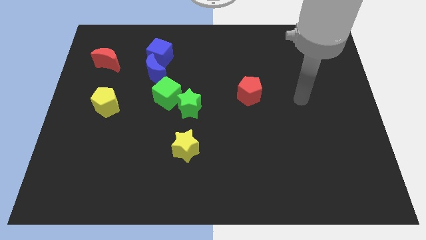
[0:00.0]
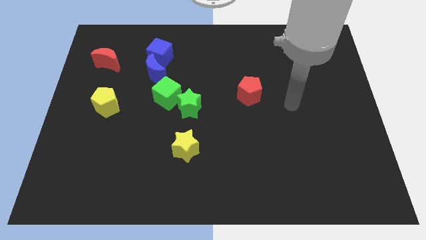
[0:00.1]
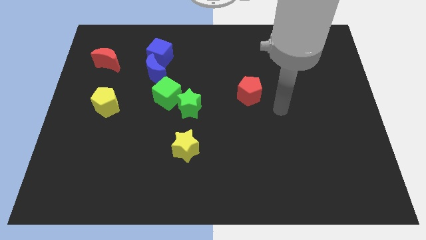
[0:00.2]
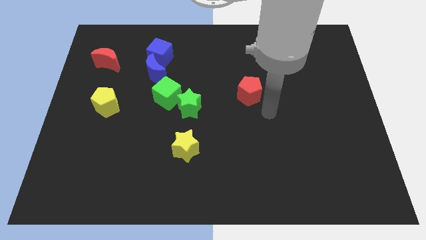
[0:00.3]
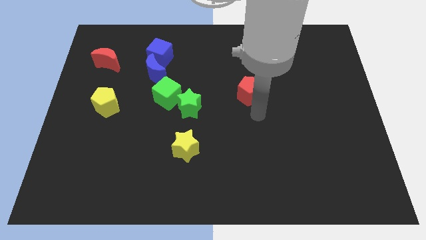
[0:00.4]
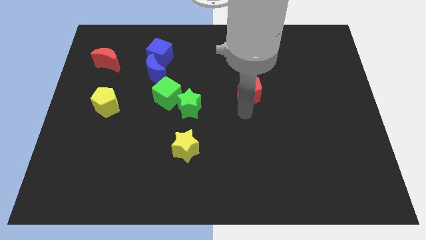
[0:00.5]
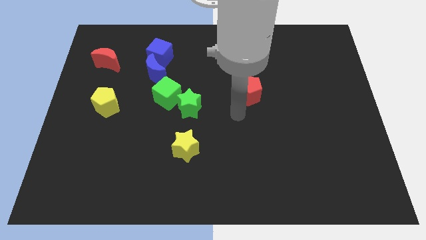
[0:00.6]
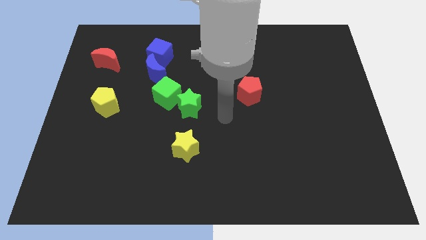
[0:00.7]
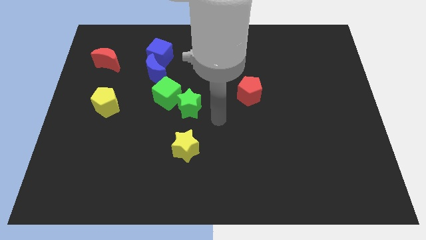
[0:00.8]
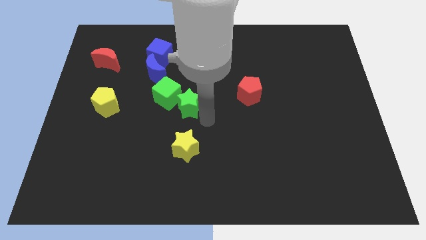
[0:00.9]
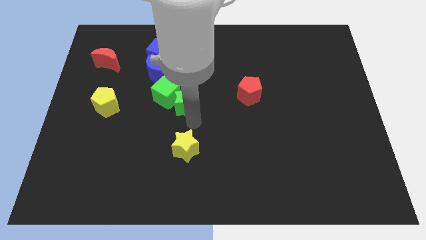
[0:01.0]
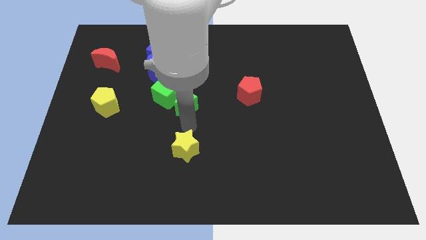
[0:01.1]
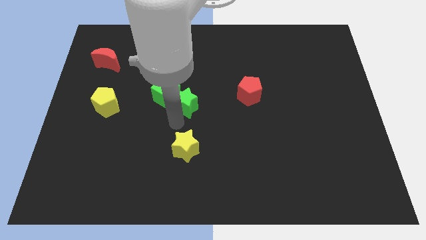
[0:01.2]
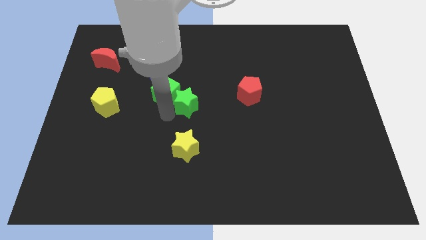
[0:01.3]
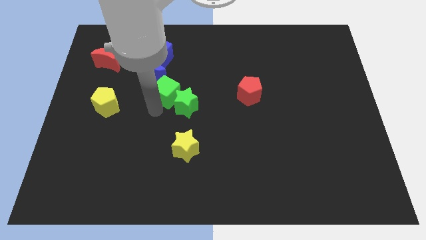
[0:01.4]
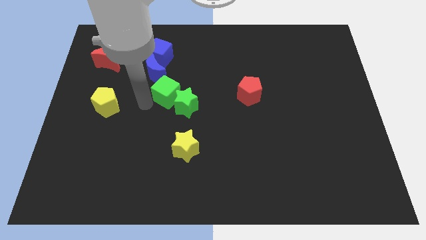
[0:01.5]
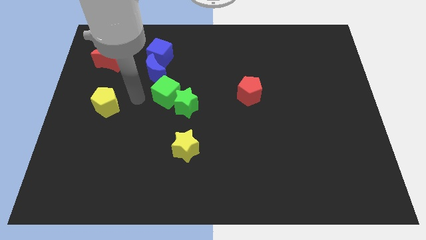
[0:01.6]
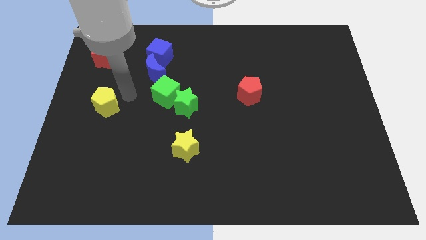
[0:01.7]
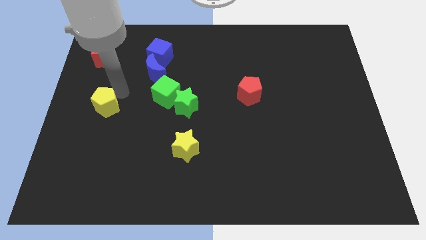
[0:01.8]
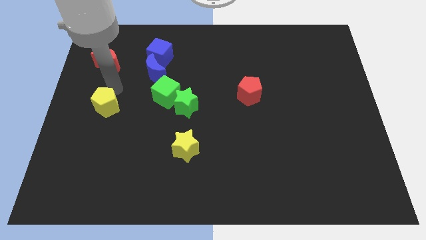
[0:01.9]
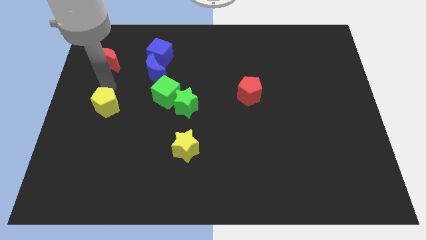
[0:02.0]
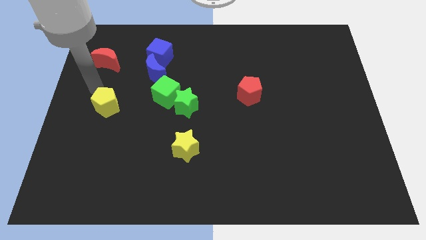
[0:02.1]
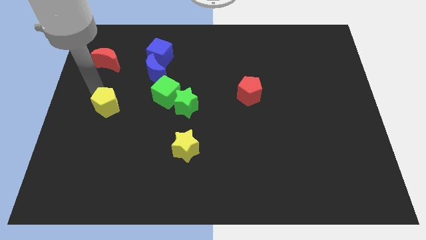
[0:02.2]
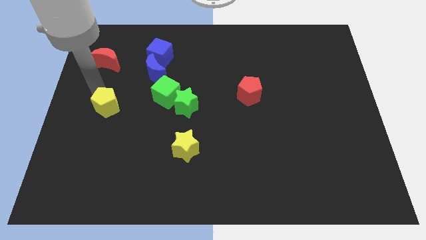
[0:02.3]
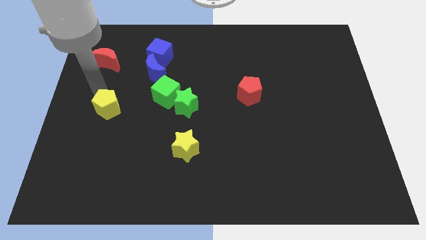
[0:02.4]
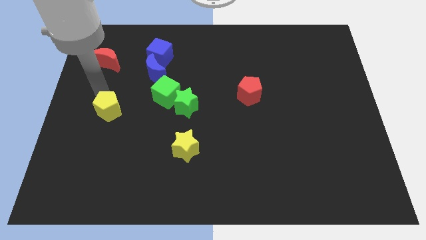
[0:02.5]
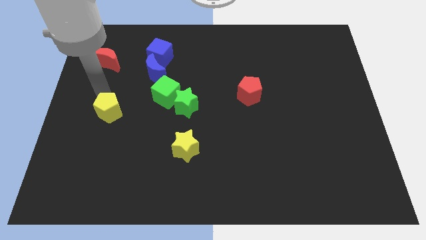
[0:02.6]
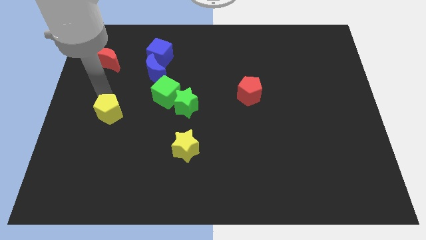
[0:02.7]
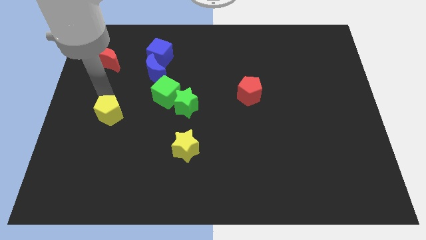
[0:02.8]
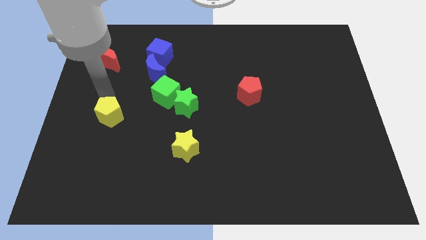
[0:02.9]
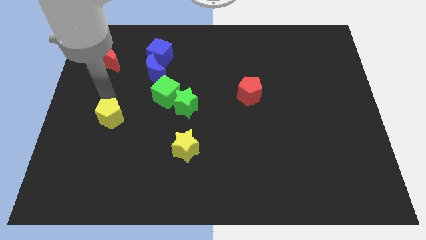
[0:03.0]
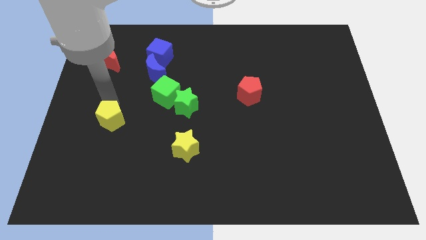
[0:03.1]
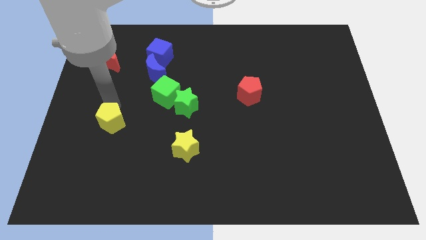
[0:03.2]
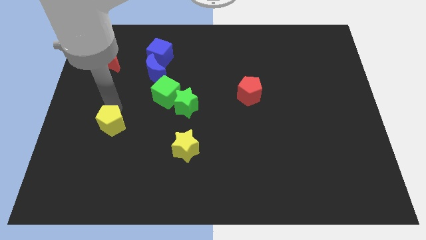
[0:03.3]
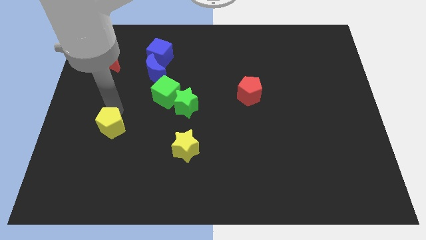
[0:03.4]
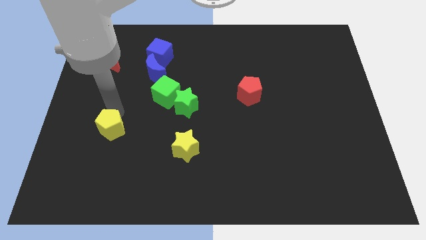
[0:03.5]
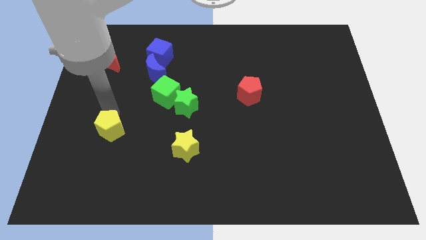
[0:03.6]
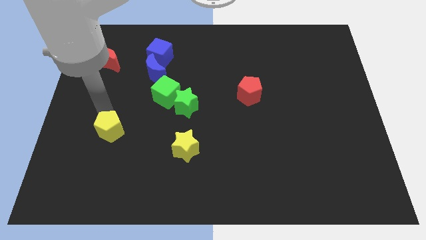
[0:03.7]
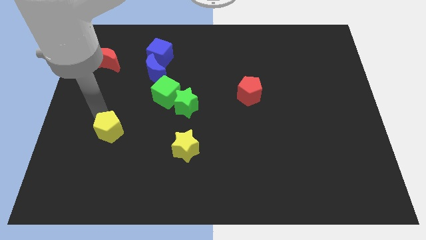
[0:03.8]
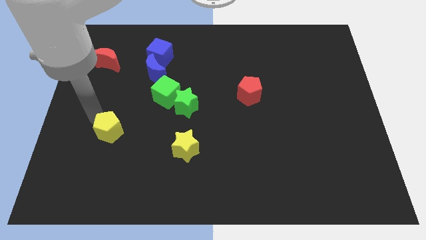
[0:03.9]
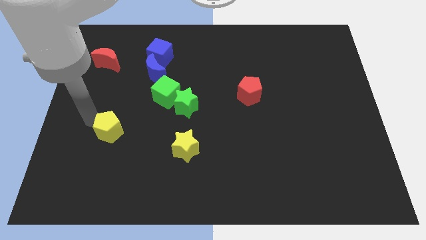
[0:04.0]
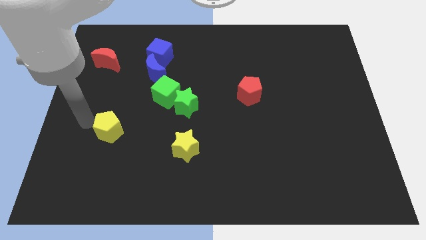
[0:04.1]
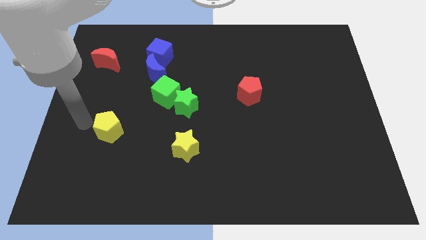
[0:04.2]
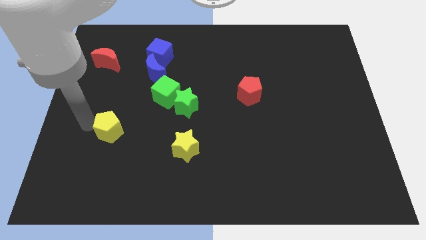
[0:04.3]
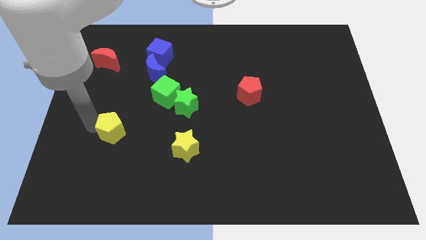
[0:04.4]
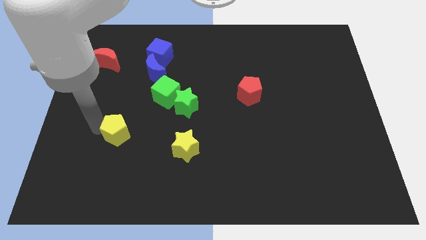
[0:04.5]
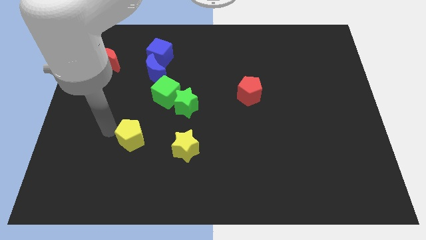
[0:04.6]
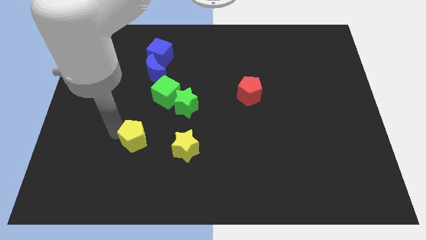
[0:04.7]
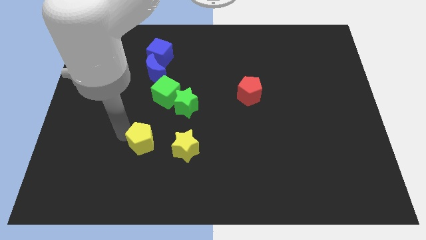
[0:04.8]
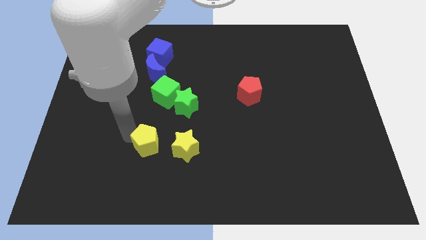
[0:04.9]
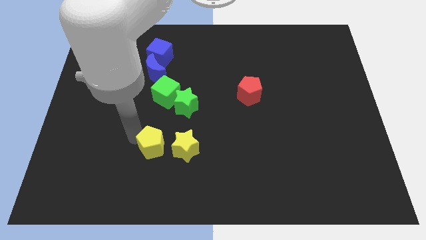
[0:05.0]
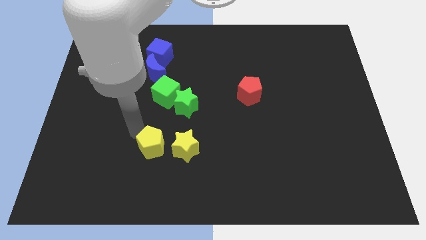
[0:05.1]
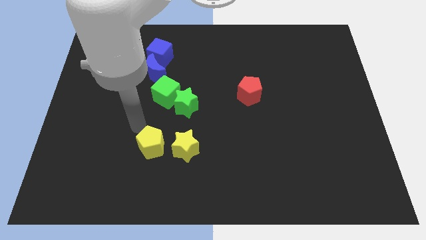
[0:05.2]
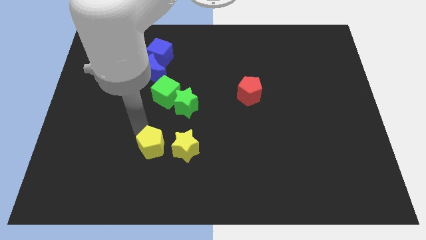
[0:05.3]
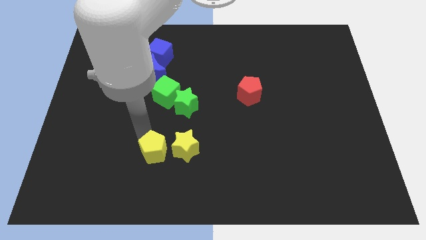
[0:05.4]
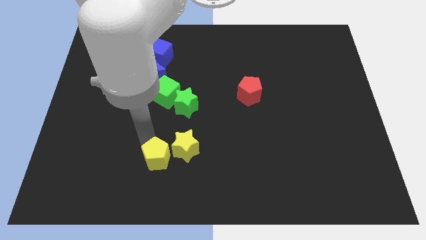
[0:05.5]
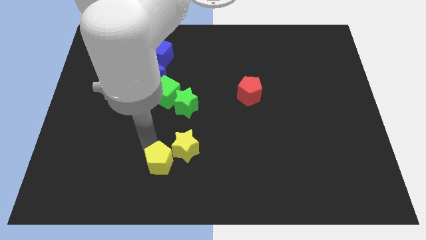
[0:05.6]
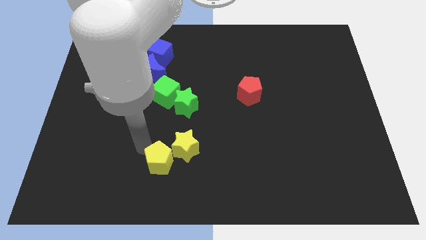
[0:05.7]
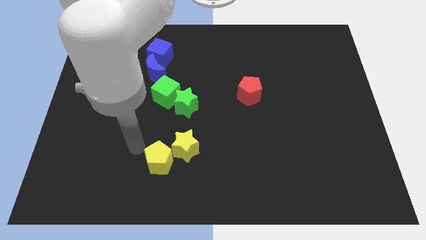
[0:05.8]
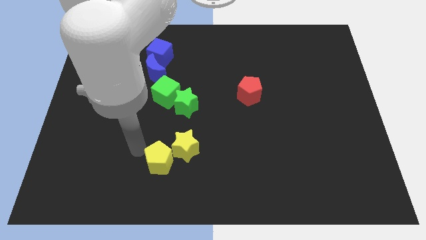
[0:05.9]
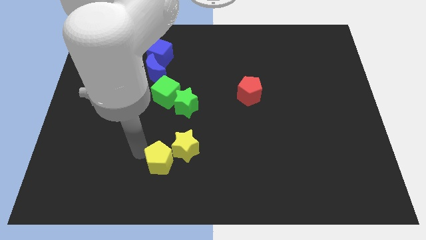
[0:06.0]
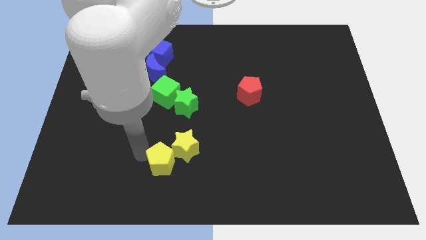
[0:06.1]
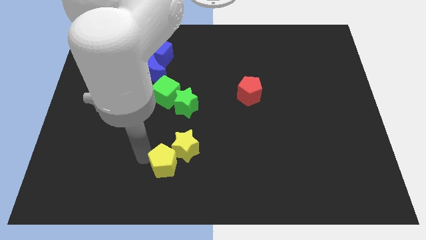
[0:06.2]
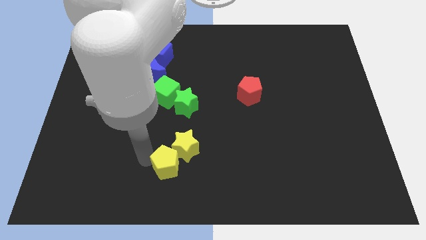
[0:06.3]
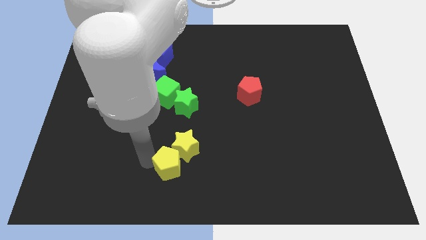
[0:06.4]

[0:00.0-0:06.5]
move the yellow pentagon to the bottom side

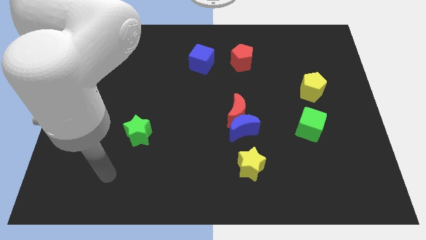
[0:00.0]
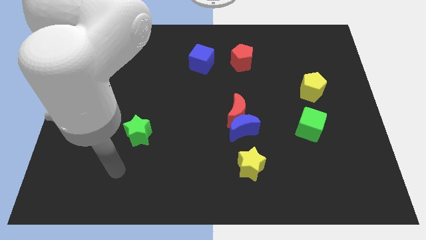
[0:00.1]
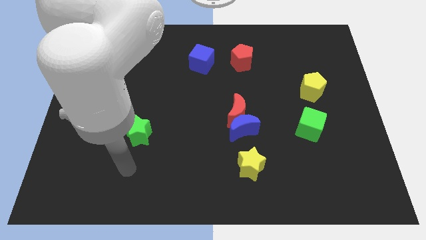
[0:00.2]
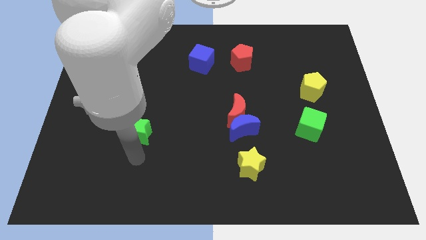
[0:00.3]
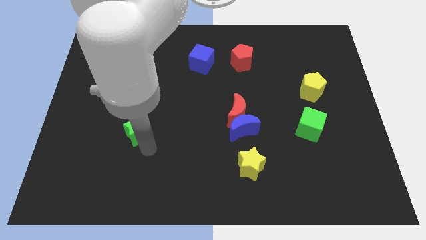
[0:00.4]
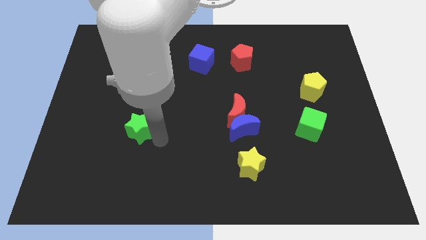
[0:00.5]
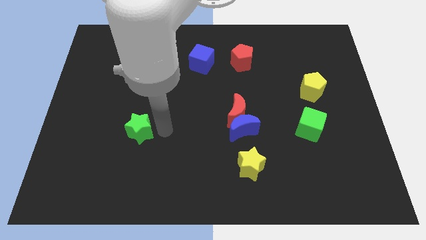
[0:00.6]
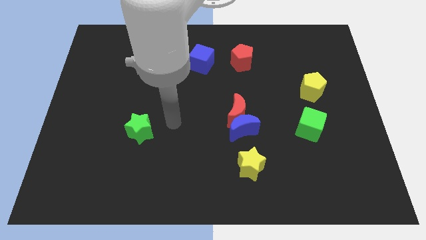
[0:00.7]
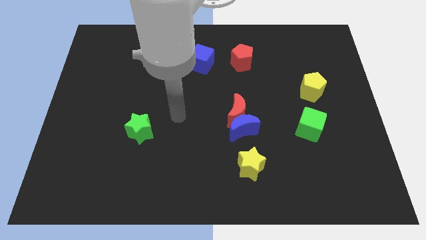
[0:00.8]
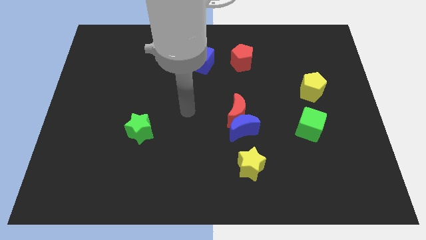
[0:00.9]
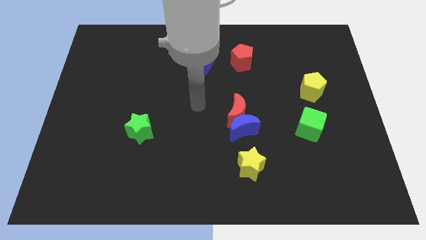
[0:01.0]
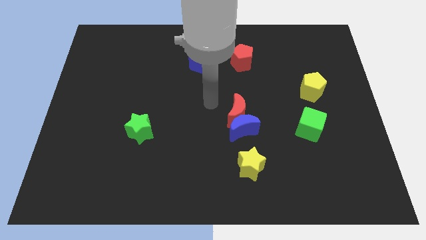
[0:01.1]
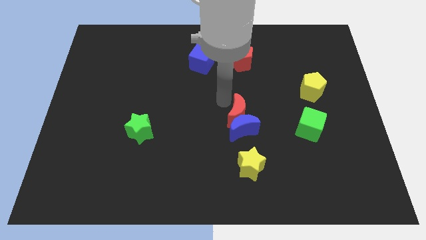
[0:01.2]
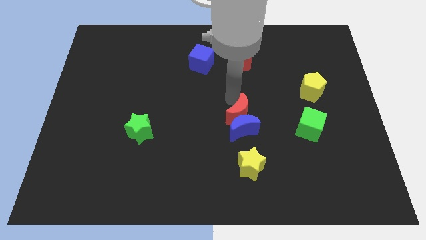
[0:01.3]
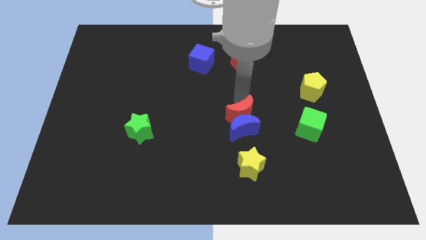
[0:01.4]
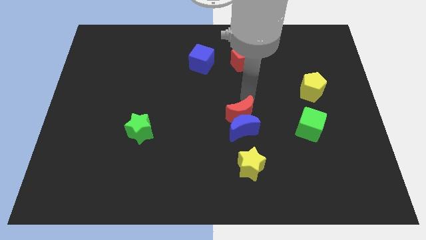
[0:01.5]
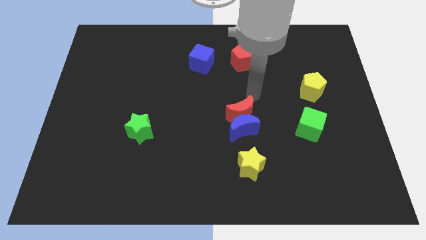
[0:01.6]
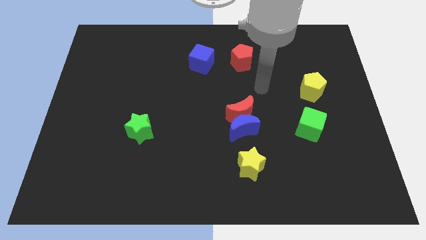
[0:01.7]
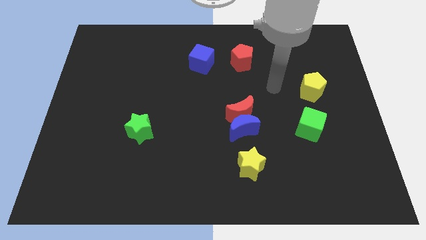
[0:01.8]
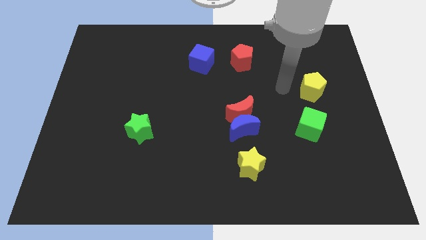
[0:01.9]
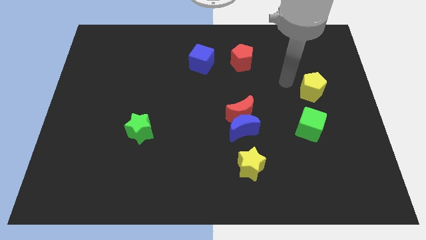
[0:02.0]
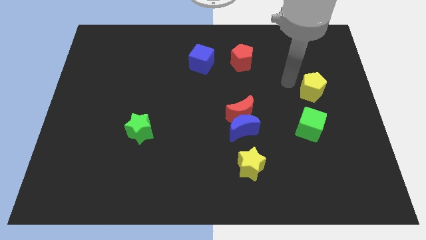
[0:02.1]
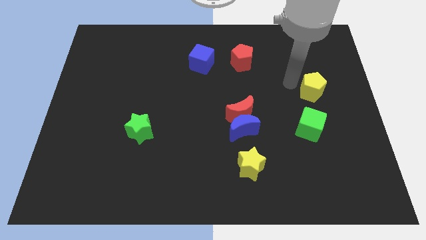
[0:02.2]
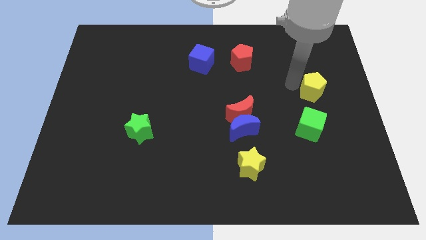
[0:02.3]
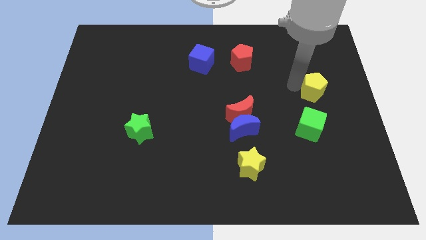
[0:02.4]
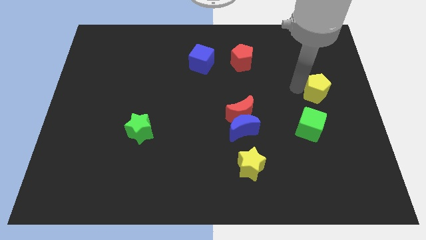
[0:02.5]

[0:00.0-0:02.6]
slide the yellow pentagon to the center right
